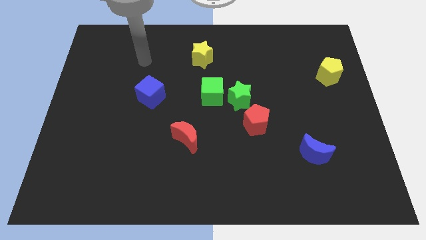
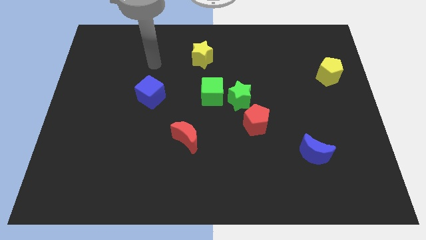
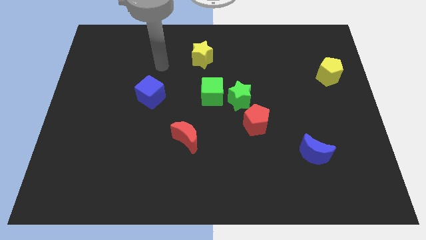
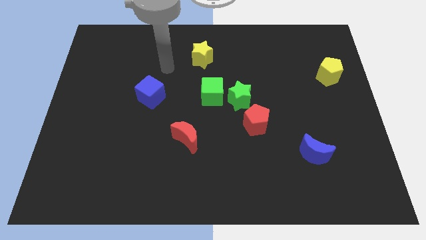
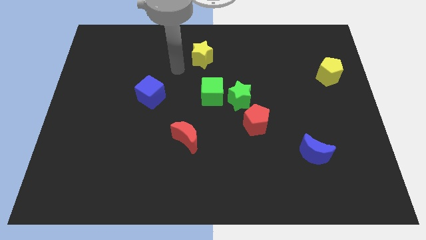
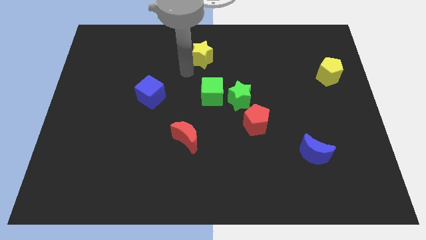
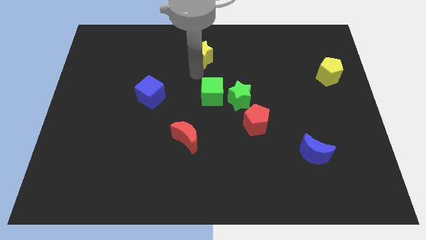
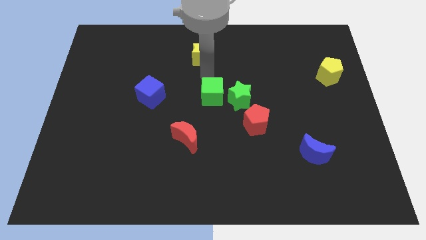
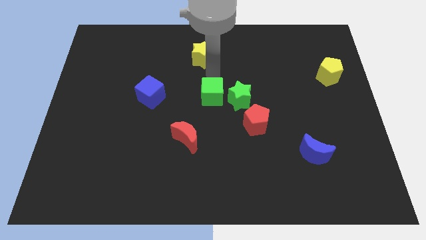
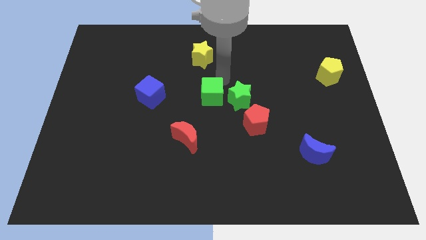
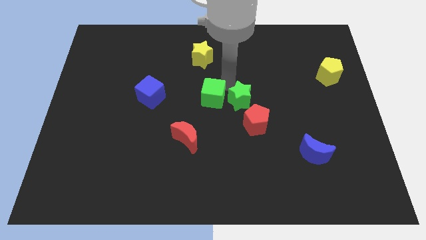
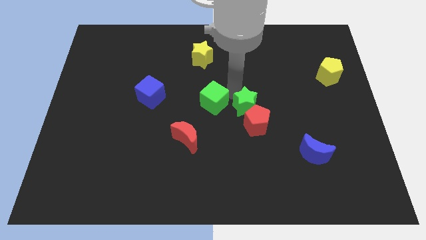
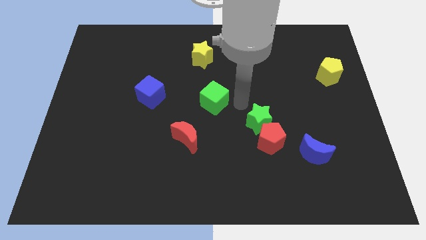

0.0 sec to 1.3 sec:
pull the green cube apart from the green star

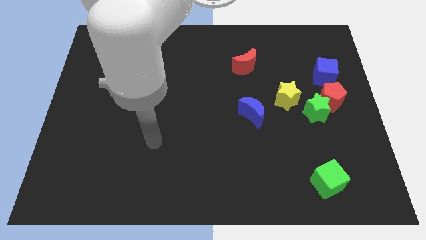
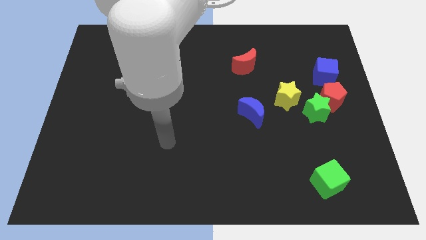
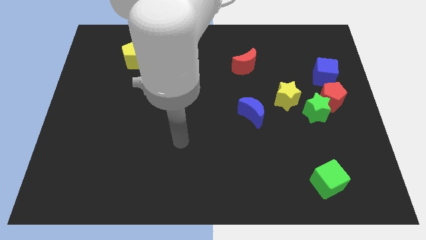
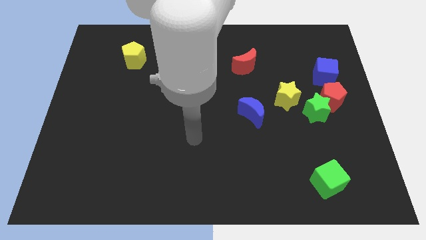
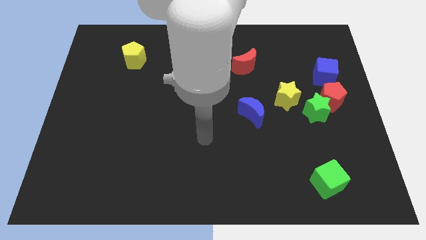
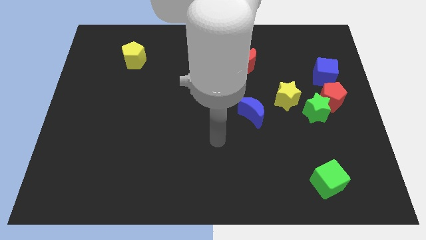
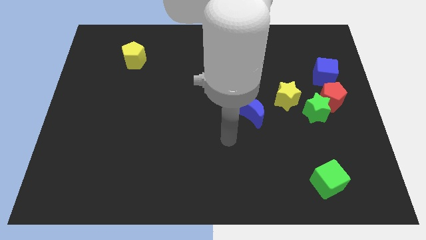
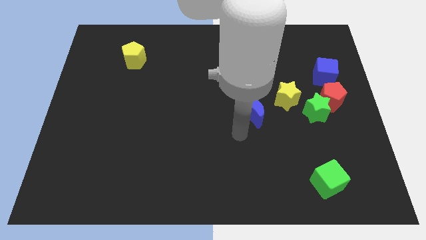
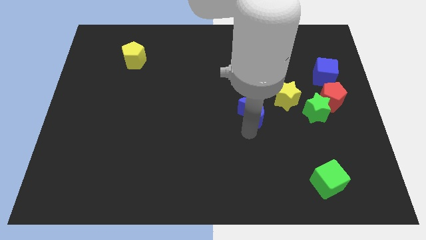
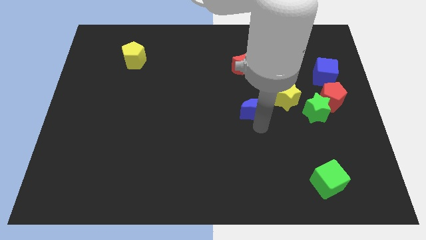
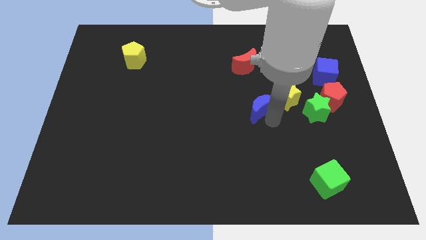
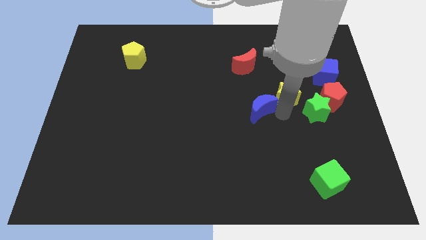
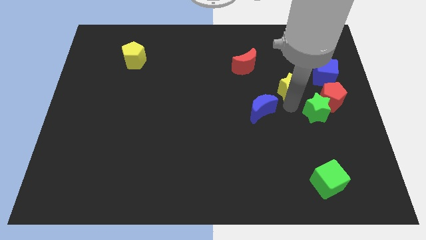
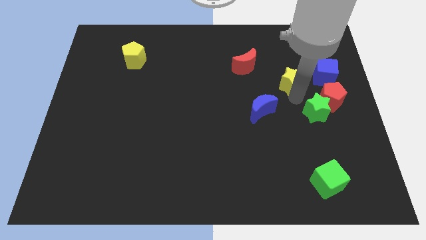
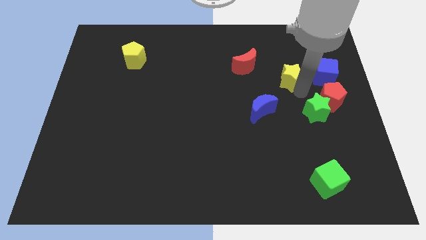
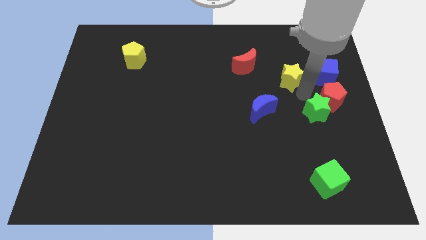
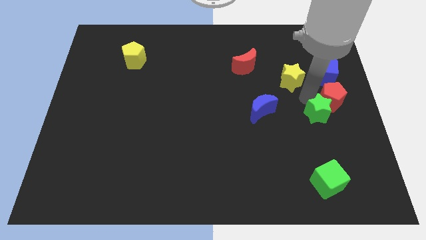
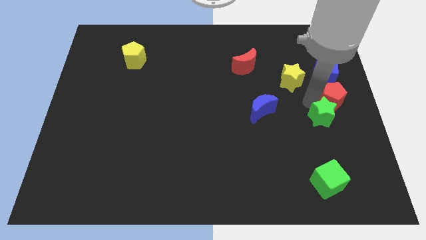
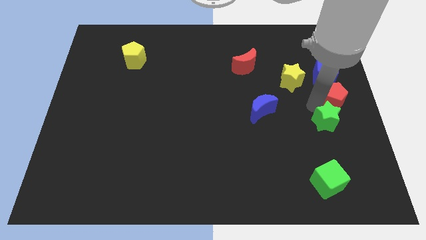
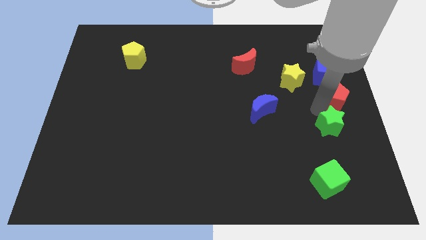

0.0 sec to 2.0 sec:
pull the green star apart from the red pentagon and yellow star

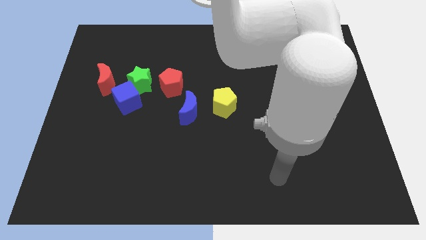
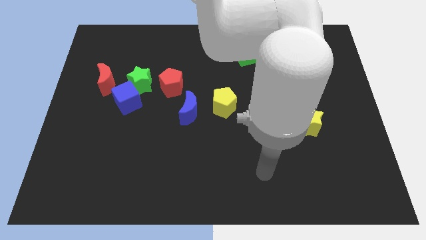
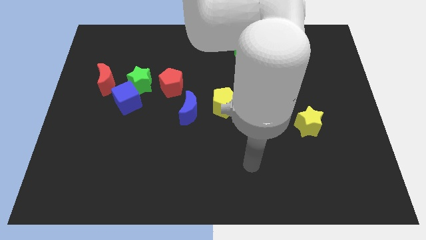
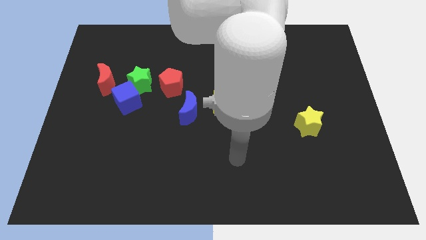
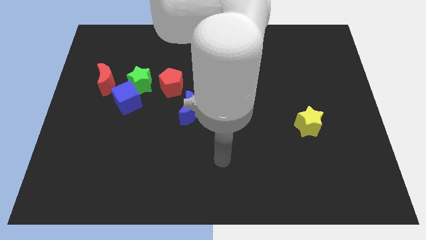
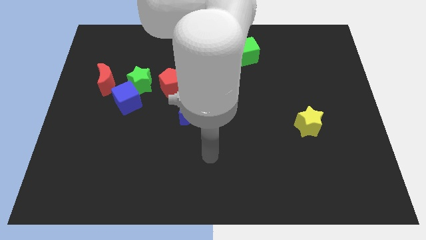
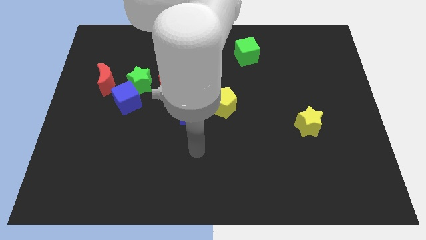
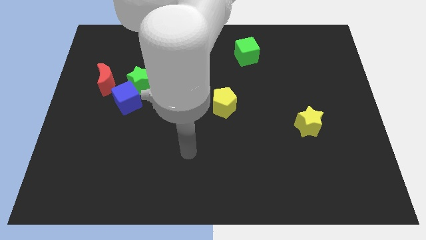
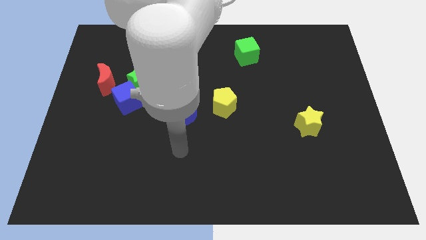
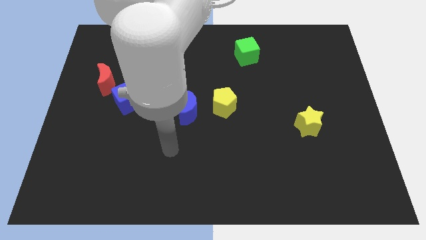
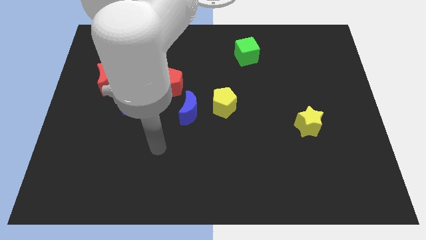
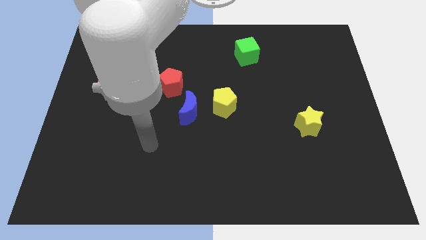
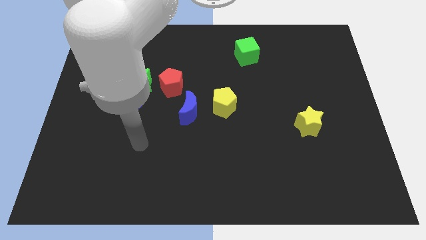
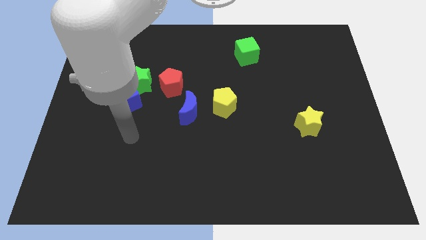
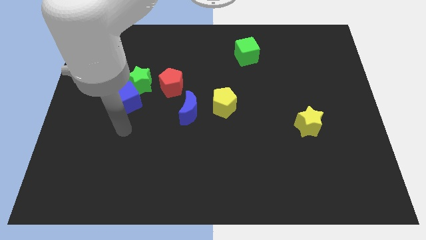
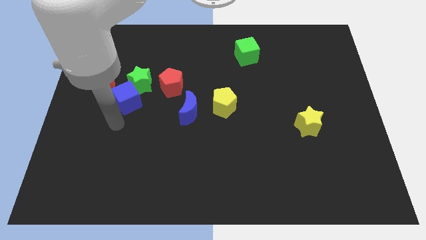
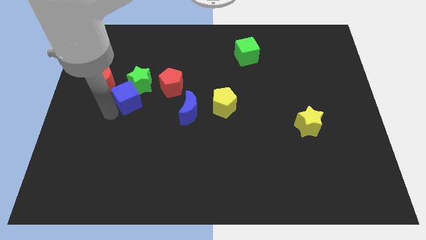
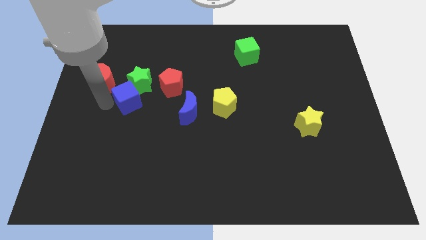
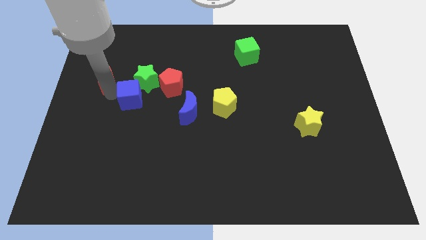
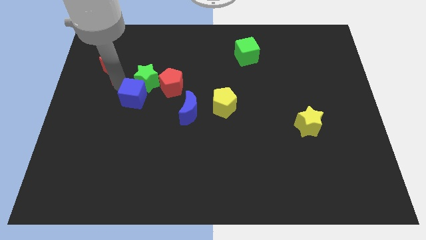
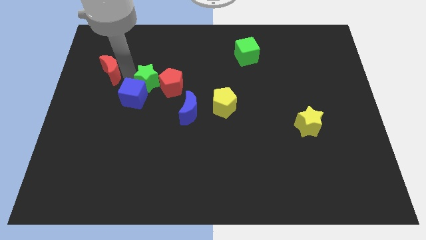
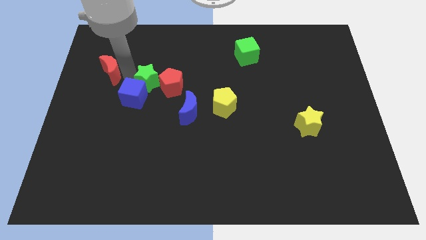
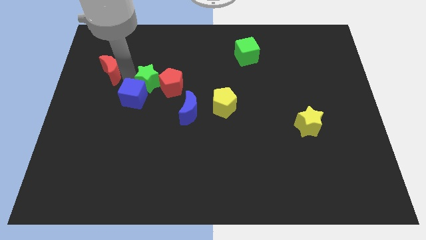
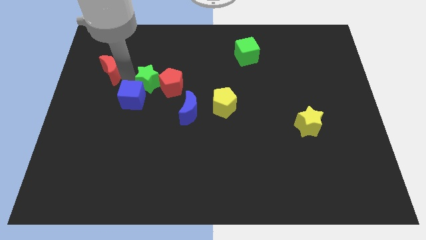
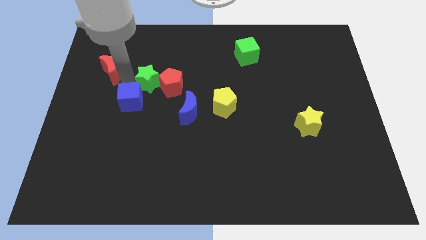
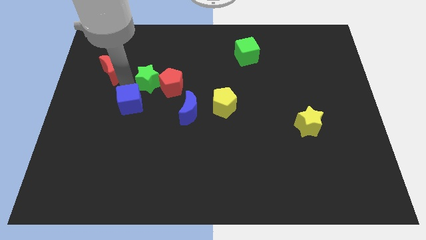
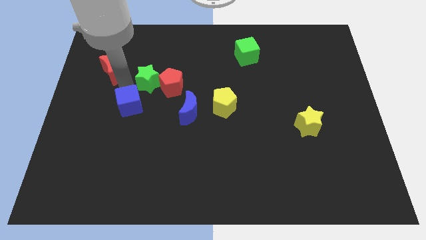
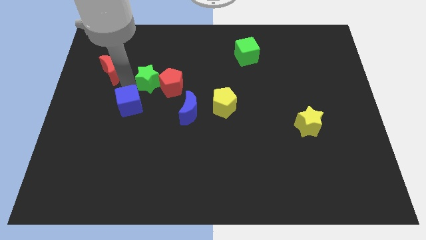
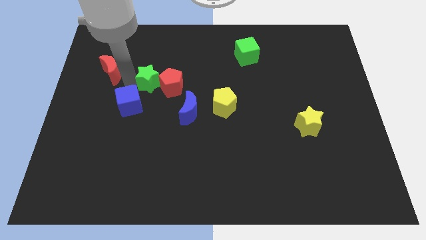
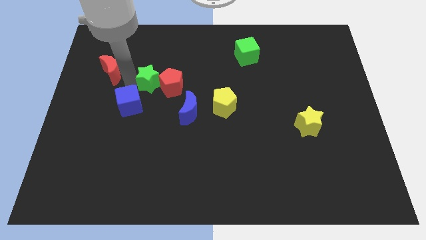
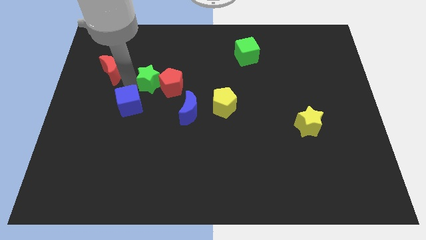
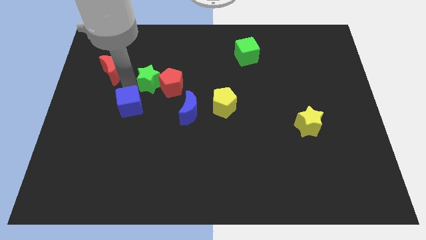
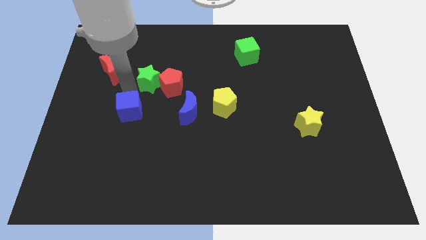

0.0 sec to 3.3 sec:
pull the blue cube apart from the green star and red moon

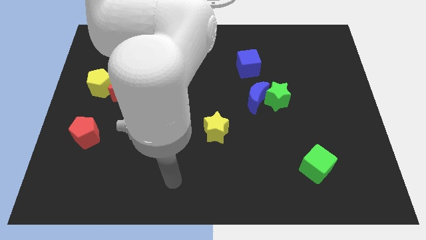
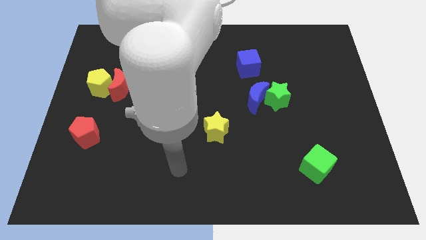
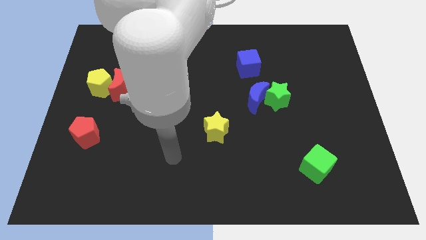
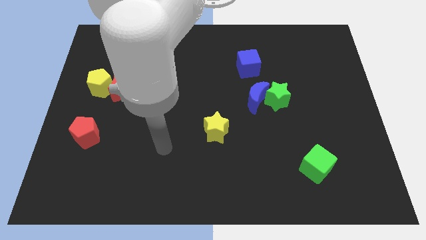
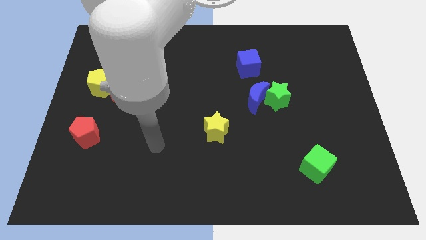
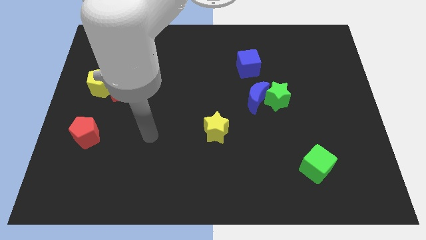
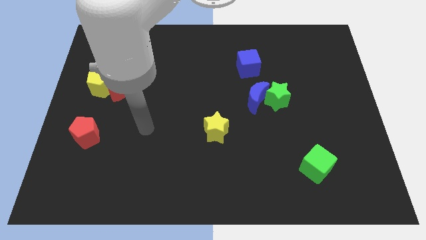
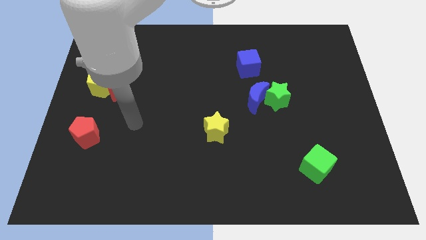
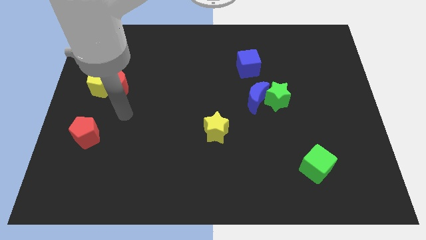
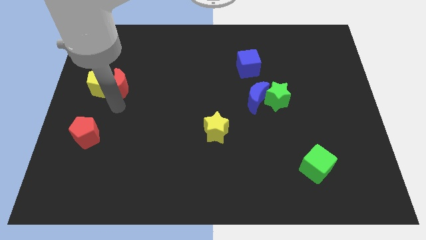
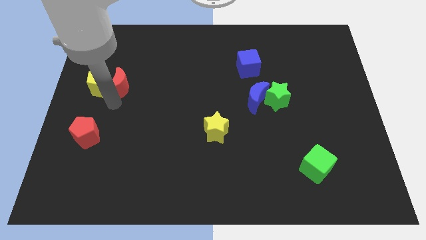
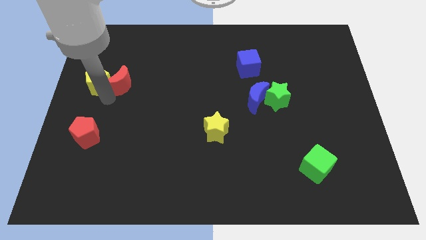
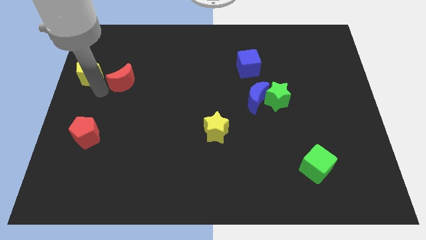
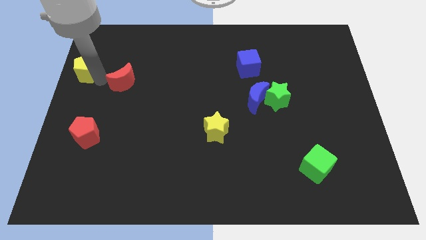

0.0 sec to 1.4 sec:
move the red moon away from the yellow pentagon

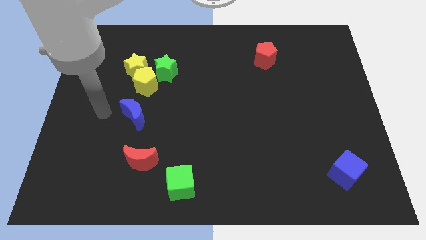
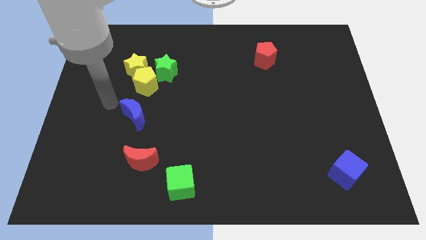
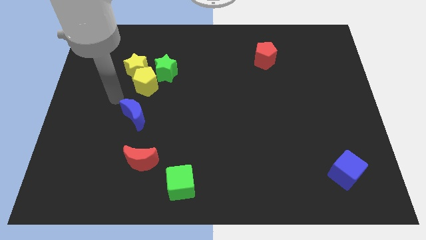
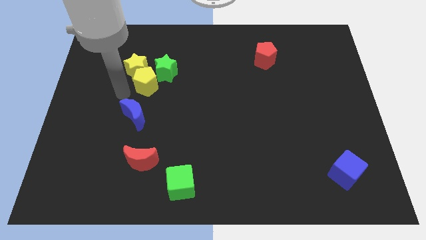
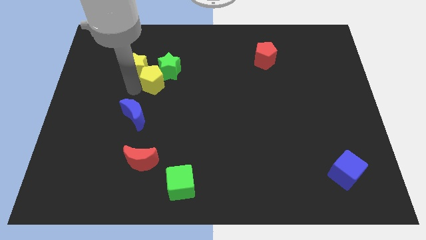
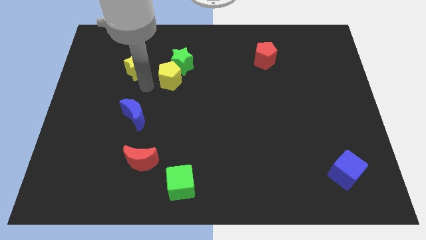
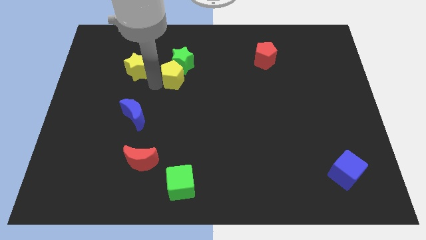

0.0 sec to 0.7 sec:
pull the yellow star apart from the yellow pentagon and green star

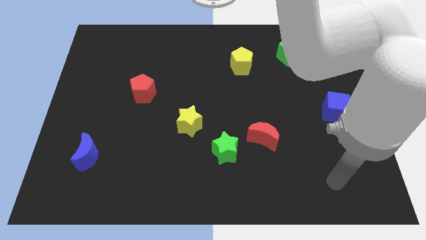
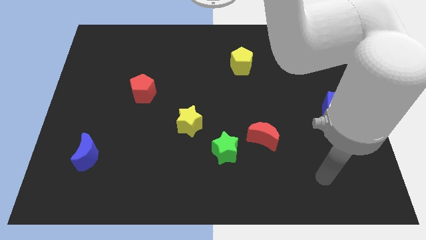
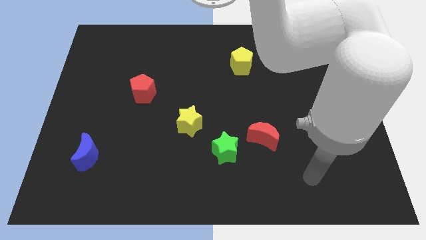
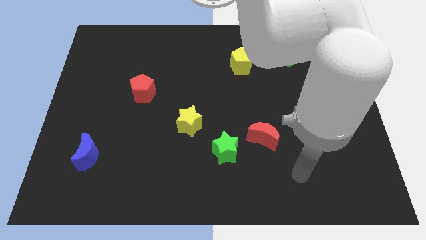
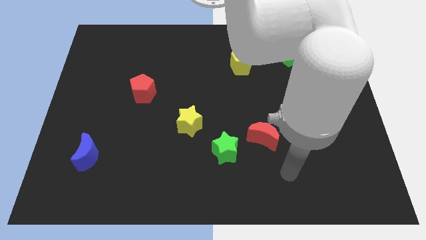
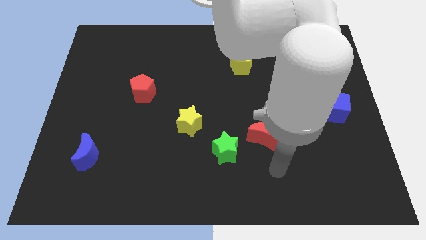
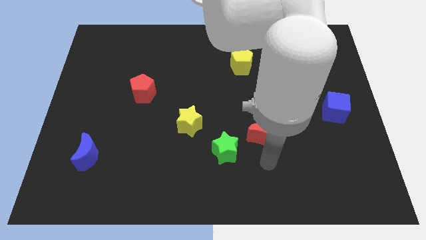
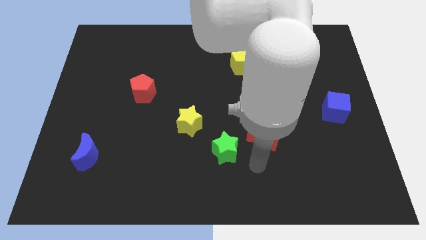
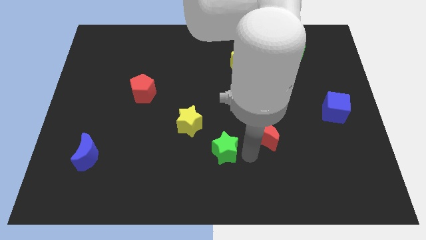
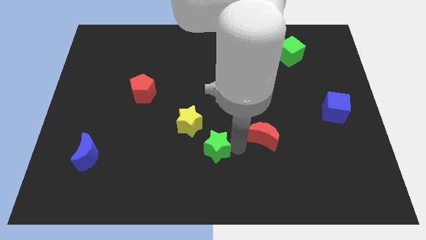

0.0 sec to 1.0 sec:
move the red moon away from the green star
